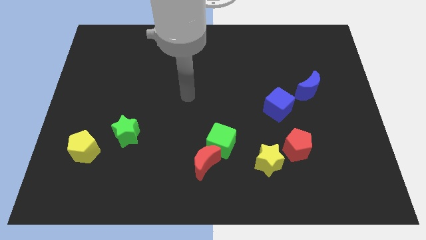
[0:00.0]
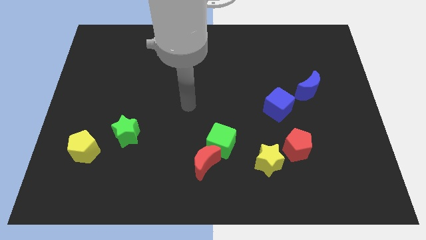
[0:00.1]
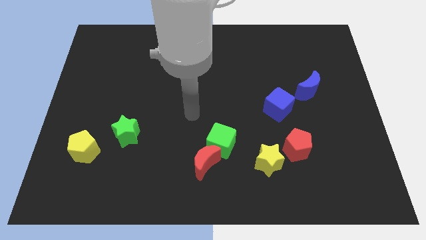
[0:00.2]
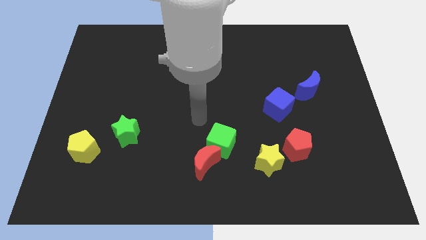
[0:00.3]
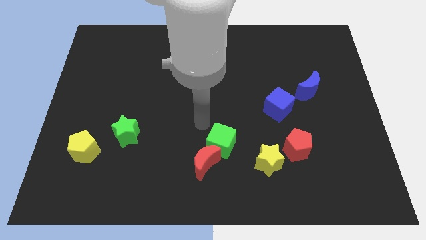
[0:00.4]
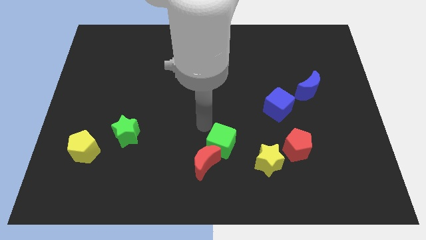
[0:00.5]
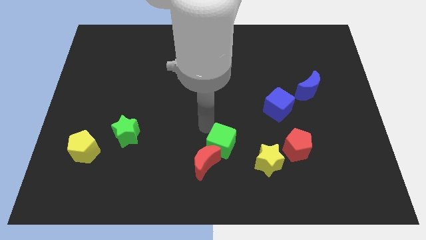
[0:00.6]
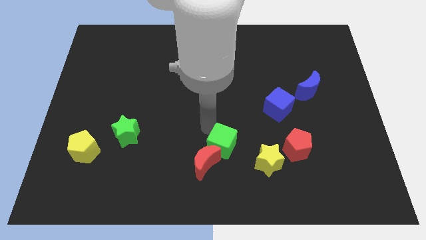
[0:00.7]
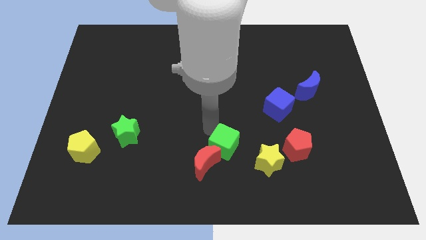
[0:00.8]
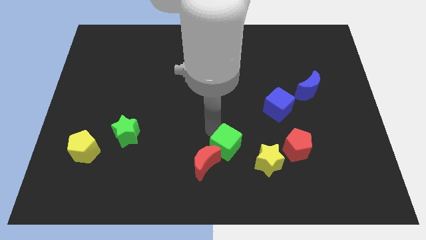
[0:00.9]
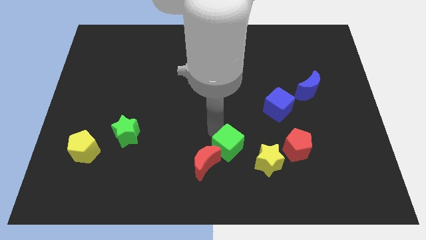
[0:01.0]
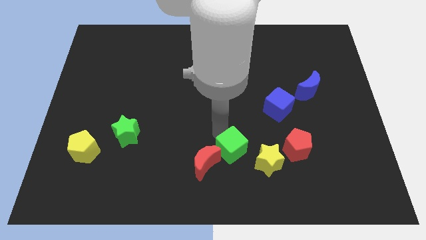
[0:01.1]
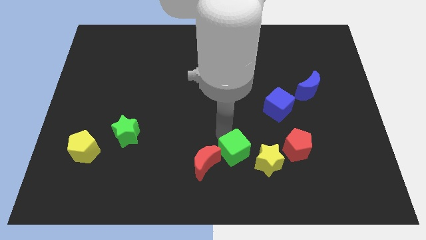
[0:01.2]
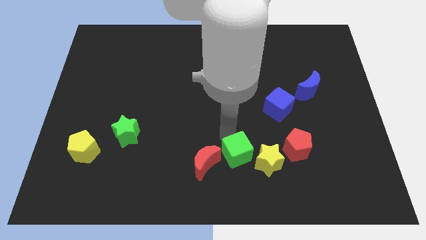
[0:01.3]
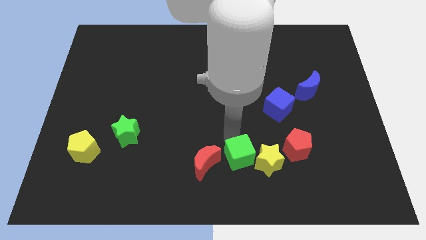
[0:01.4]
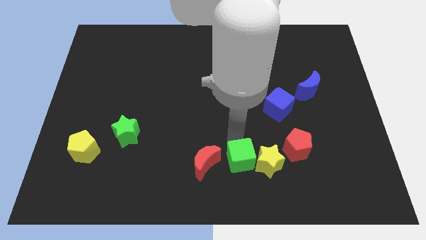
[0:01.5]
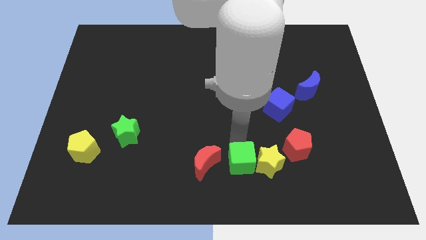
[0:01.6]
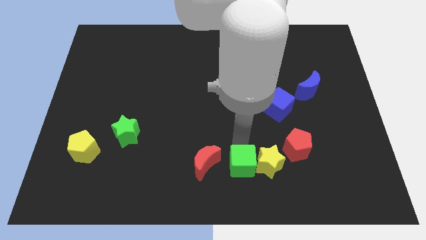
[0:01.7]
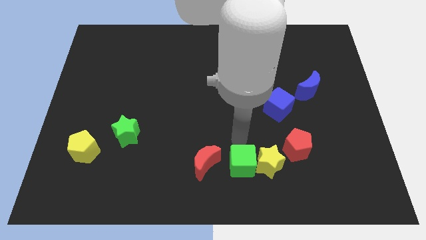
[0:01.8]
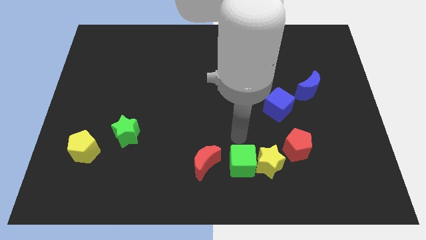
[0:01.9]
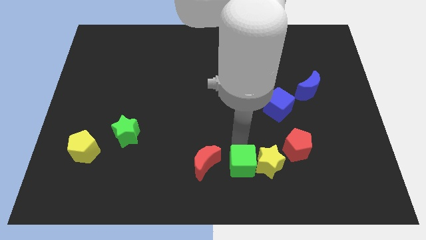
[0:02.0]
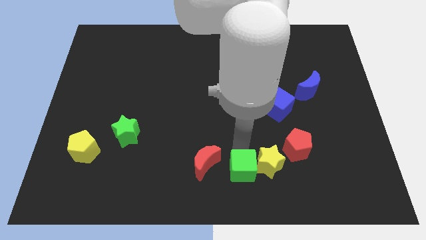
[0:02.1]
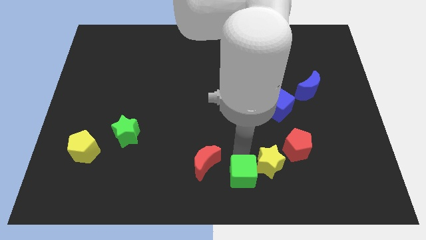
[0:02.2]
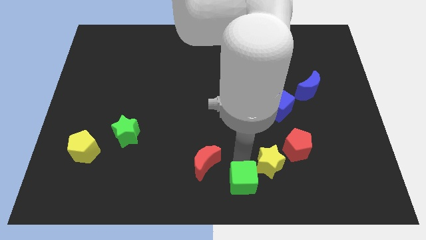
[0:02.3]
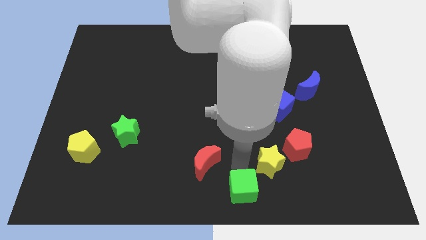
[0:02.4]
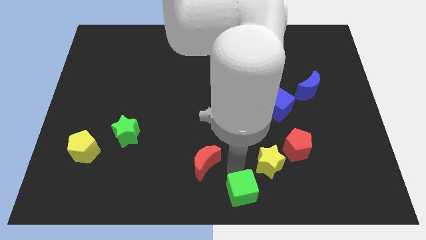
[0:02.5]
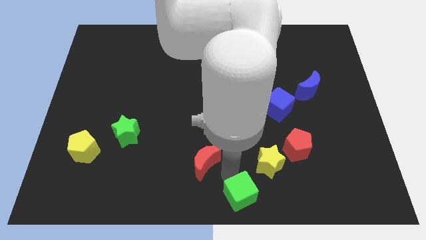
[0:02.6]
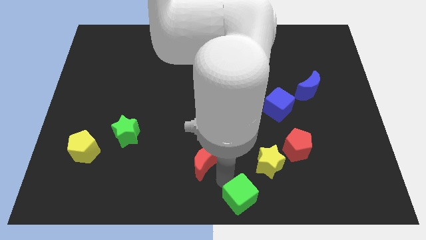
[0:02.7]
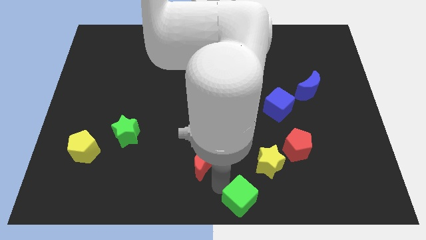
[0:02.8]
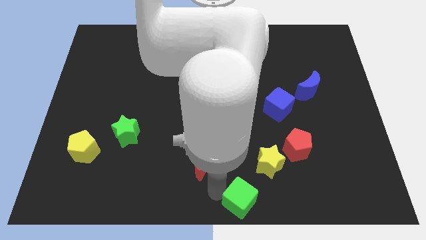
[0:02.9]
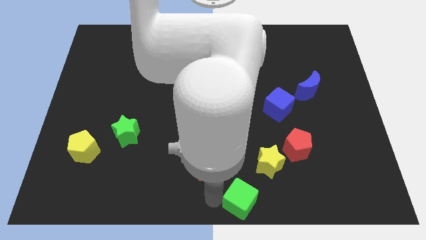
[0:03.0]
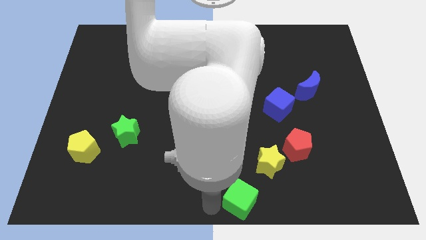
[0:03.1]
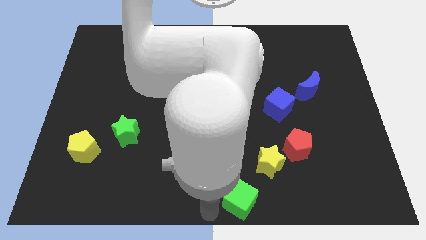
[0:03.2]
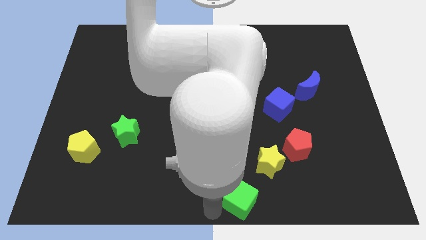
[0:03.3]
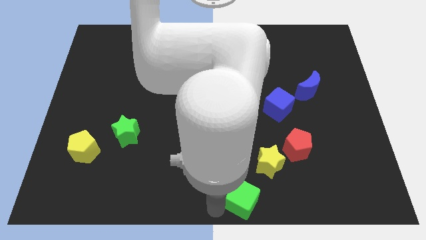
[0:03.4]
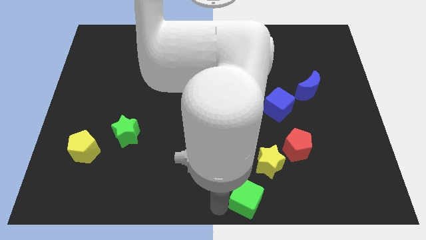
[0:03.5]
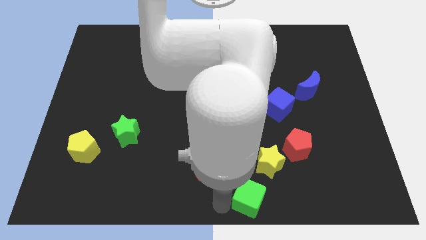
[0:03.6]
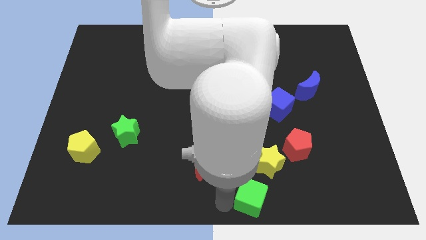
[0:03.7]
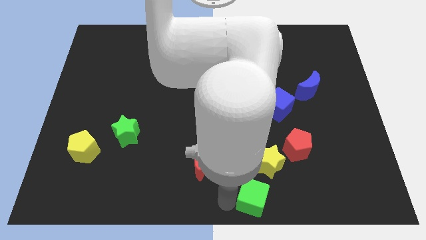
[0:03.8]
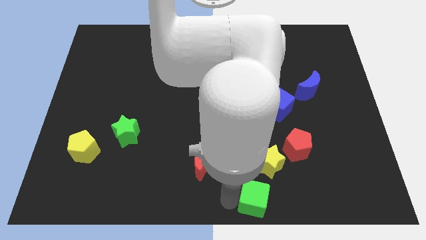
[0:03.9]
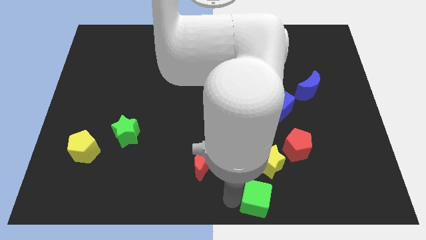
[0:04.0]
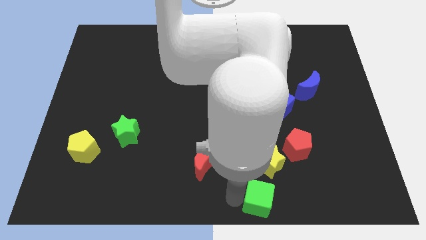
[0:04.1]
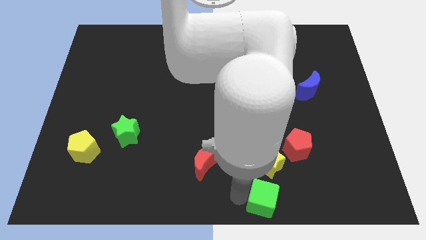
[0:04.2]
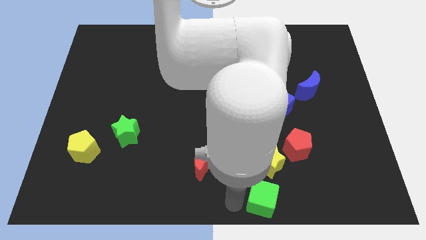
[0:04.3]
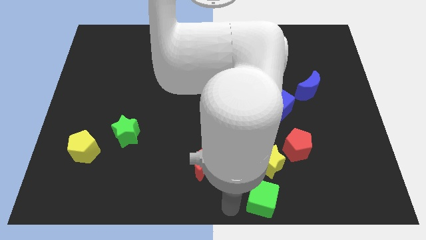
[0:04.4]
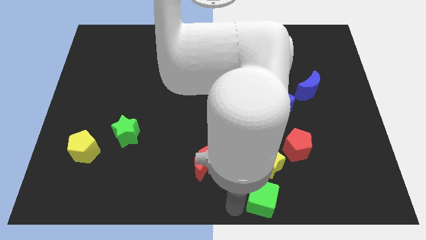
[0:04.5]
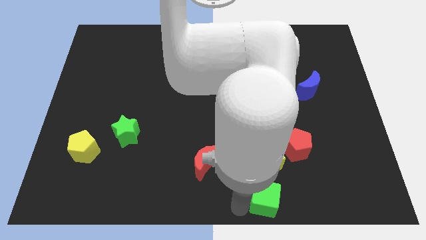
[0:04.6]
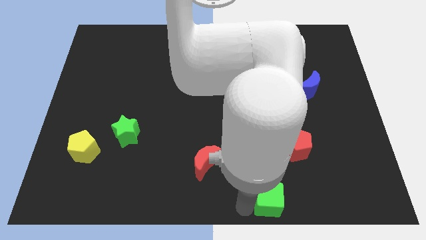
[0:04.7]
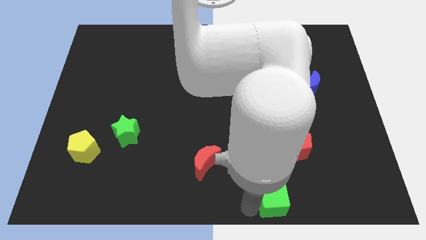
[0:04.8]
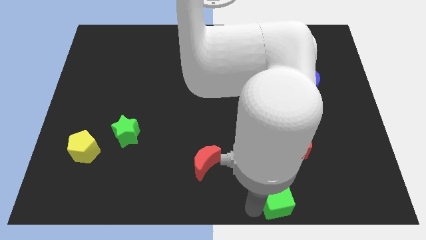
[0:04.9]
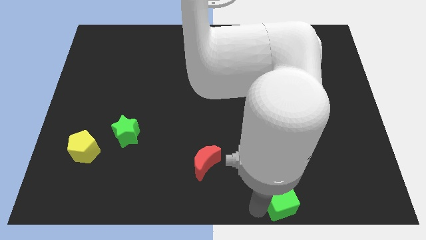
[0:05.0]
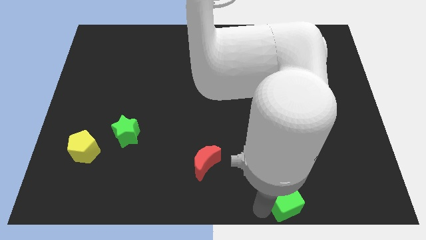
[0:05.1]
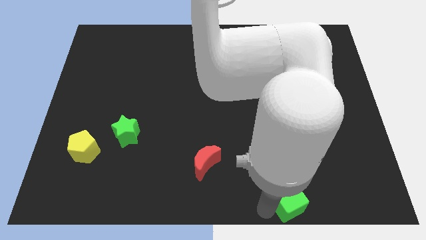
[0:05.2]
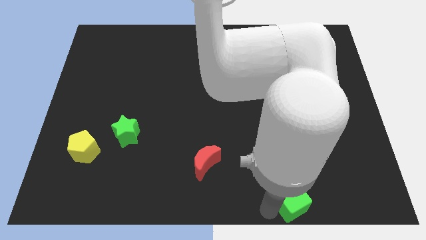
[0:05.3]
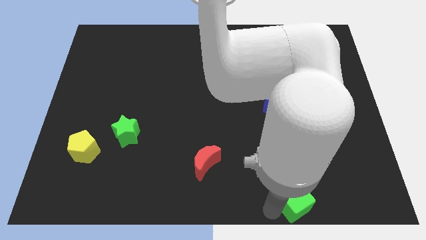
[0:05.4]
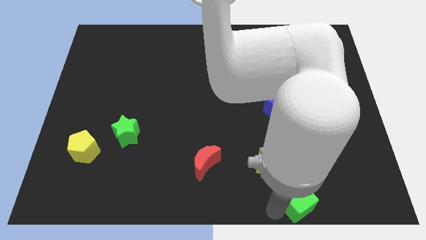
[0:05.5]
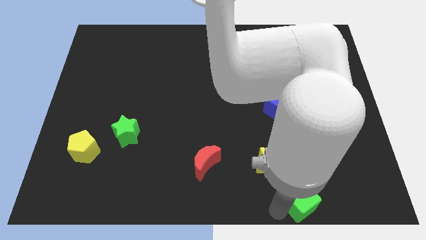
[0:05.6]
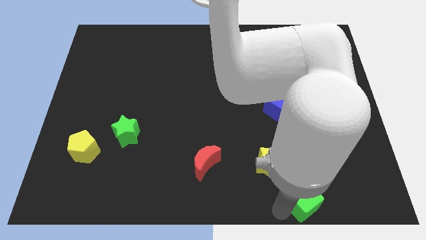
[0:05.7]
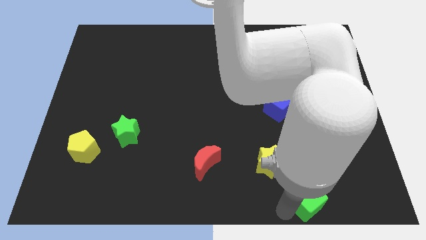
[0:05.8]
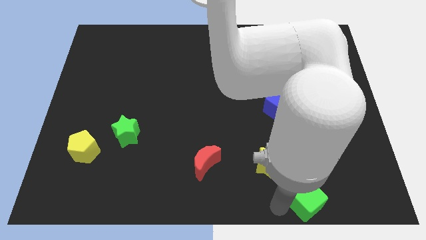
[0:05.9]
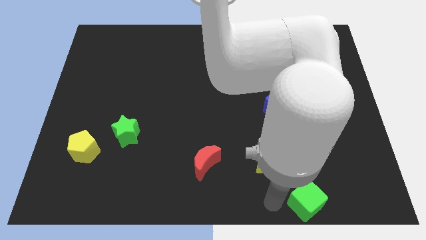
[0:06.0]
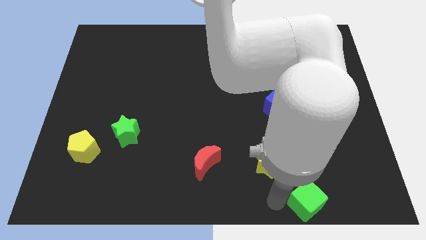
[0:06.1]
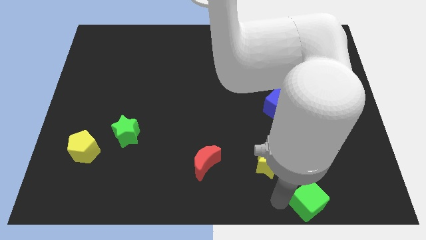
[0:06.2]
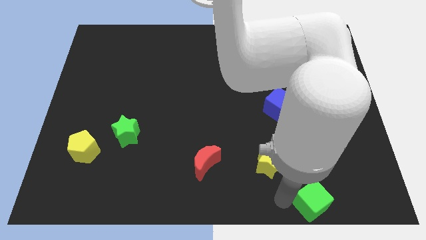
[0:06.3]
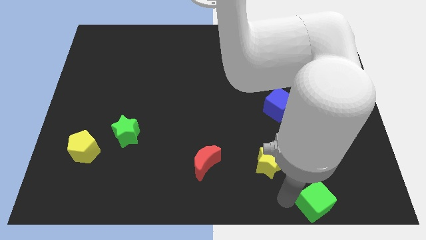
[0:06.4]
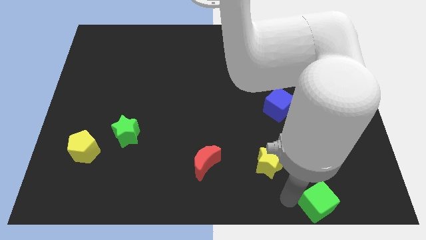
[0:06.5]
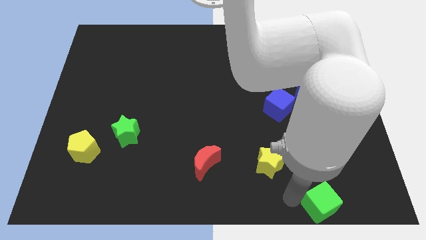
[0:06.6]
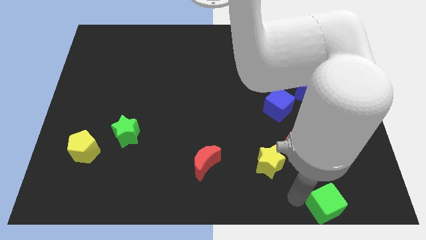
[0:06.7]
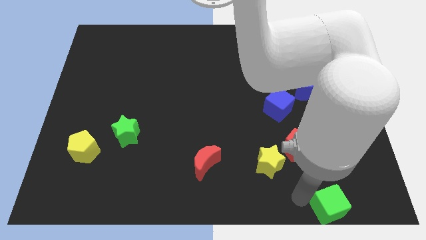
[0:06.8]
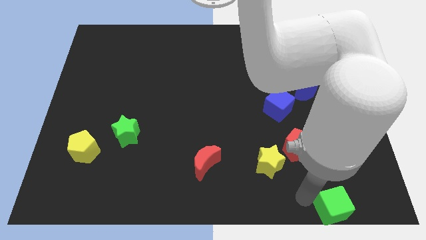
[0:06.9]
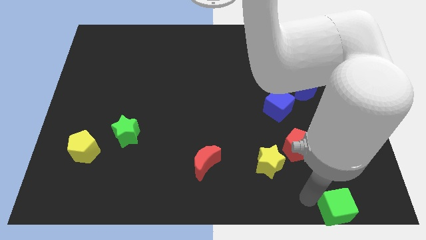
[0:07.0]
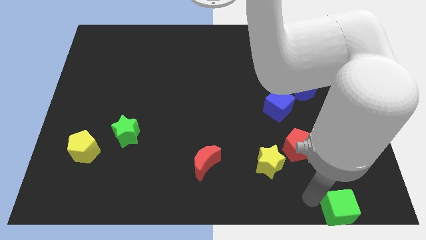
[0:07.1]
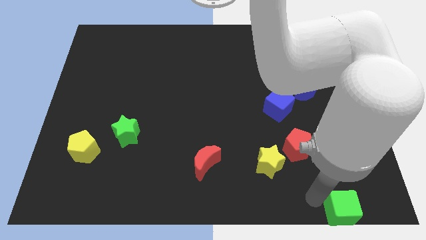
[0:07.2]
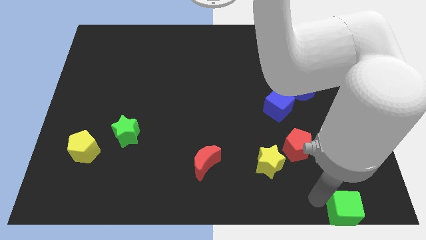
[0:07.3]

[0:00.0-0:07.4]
push the green cube to the bottom right of the board
